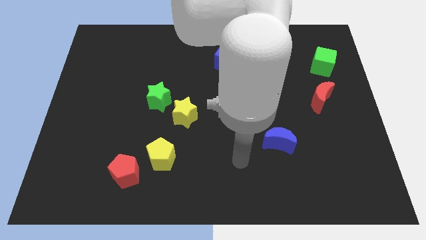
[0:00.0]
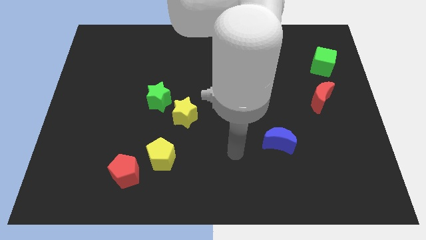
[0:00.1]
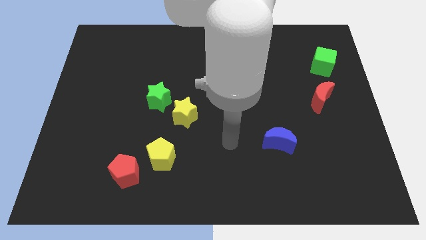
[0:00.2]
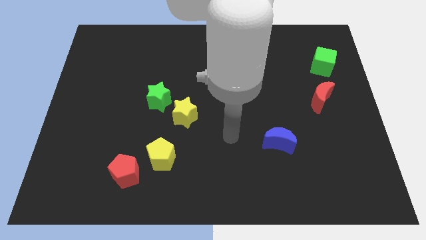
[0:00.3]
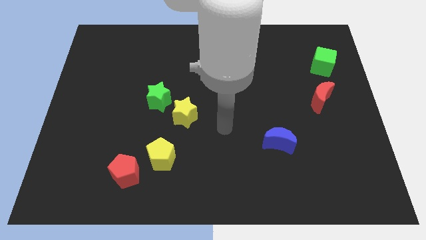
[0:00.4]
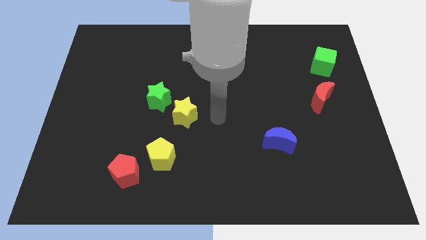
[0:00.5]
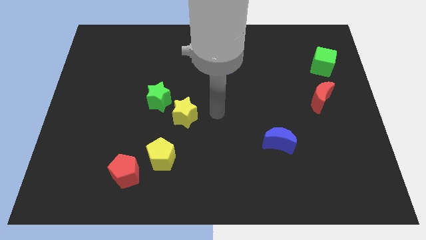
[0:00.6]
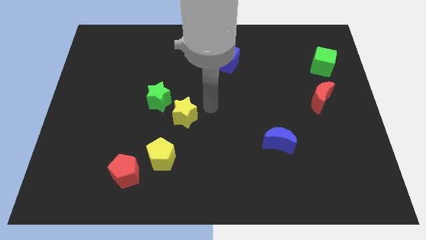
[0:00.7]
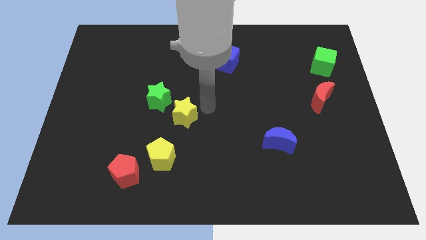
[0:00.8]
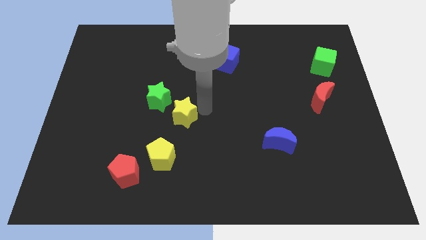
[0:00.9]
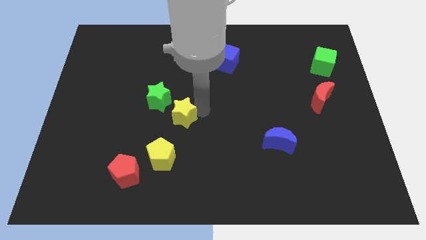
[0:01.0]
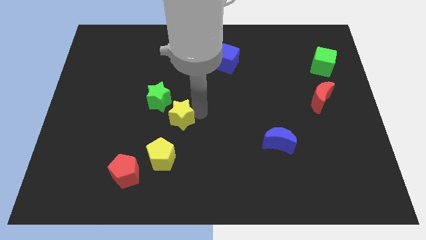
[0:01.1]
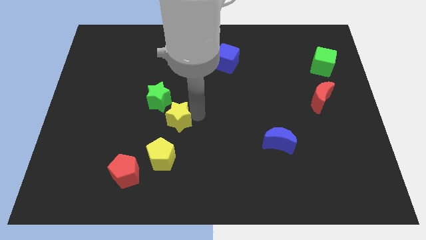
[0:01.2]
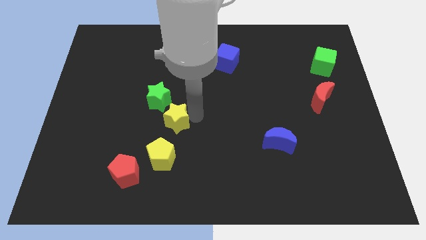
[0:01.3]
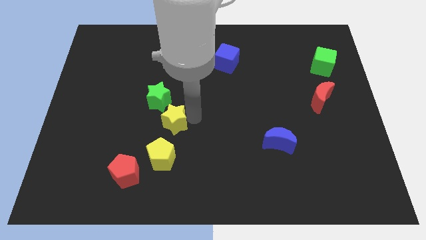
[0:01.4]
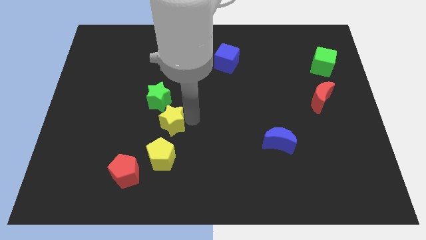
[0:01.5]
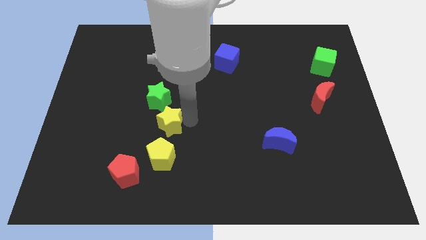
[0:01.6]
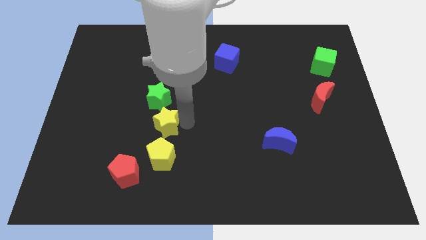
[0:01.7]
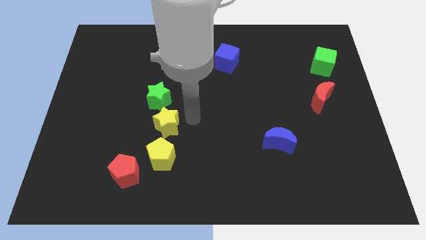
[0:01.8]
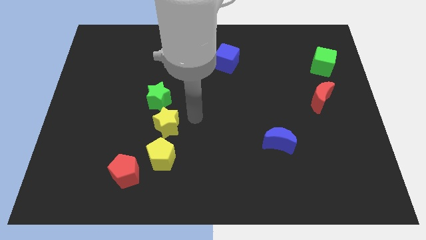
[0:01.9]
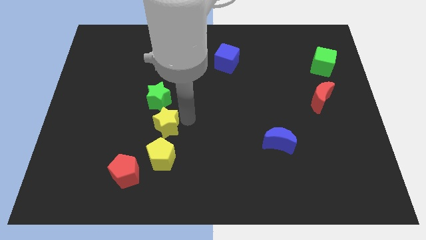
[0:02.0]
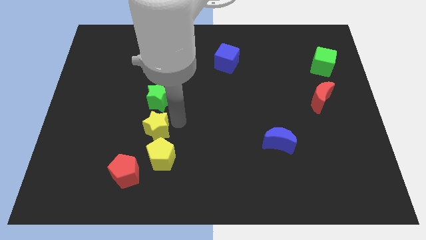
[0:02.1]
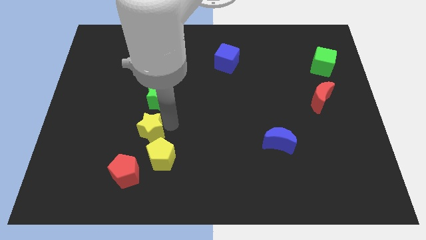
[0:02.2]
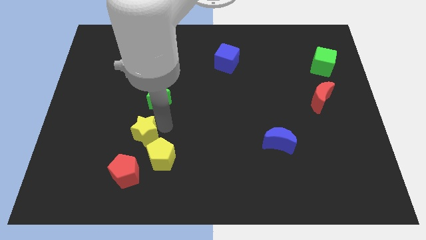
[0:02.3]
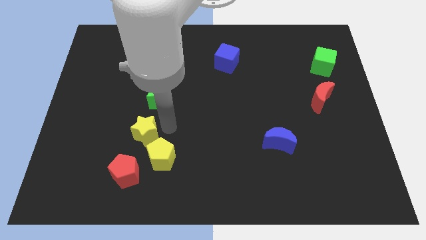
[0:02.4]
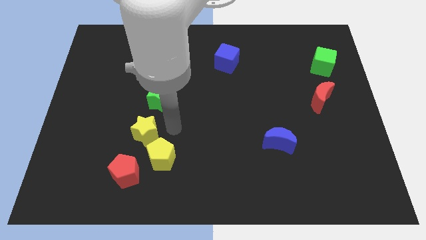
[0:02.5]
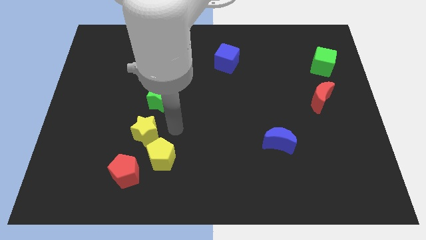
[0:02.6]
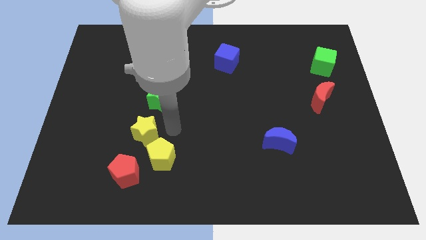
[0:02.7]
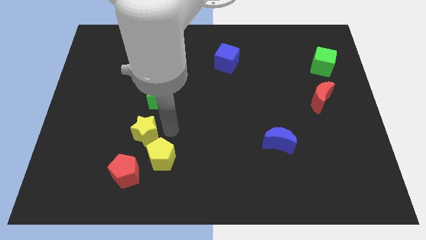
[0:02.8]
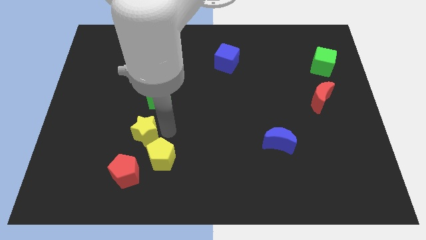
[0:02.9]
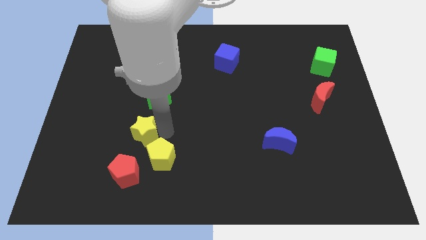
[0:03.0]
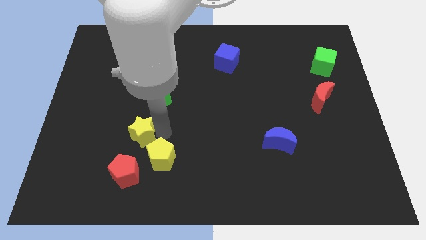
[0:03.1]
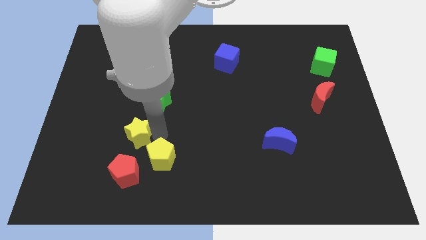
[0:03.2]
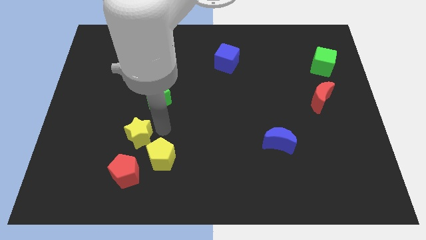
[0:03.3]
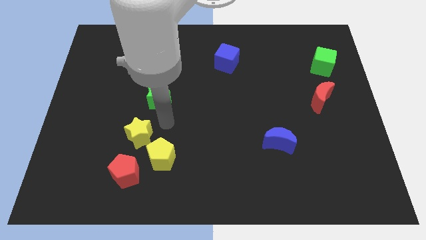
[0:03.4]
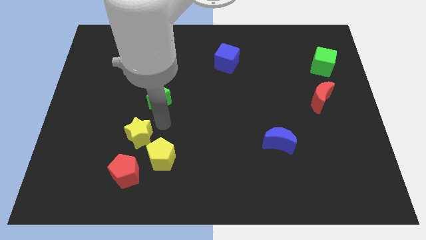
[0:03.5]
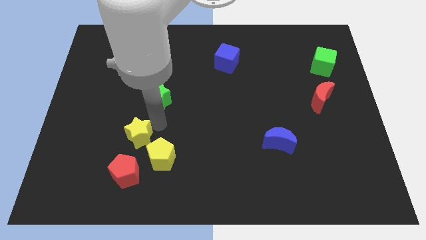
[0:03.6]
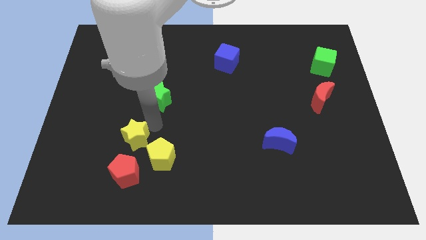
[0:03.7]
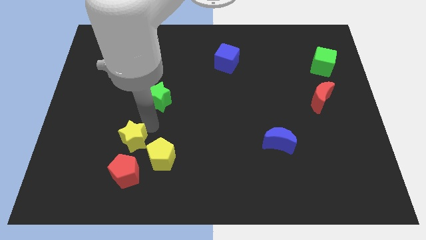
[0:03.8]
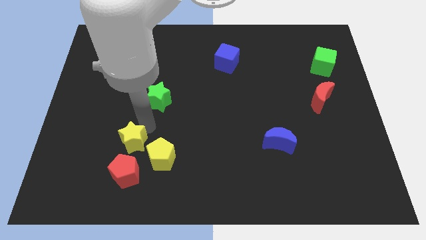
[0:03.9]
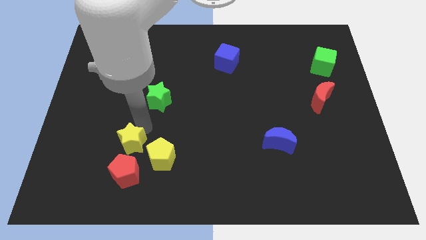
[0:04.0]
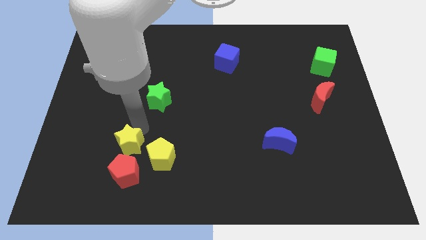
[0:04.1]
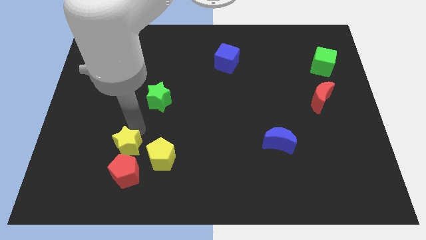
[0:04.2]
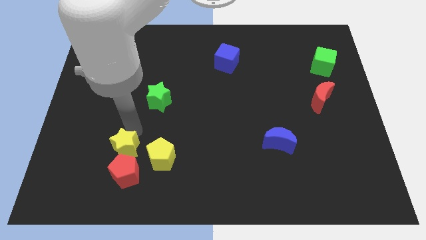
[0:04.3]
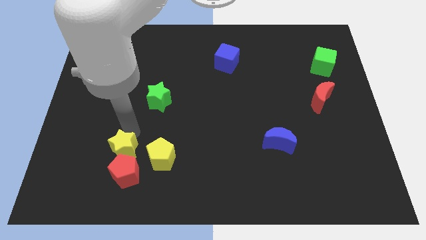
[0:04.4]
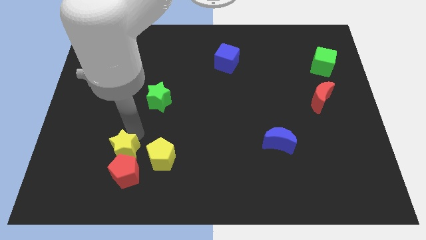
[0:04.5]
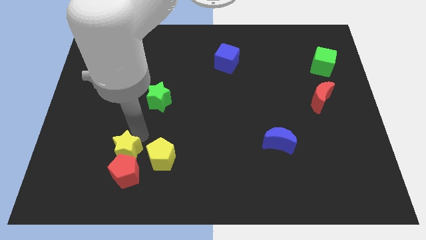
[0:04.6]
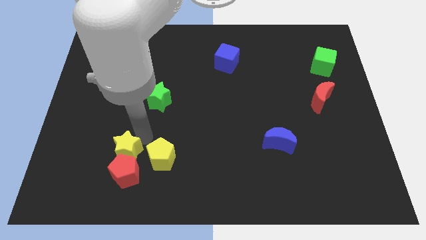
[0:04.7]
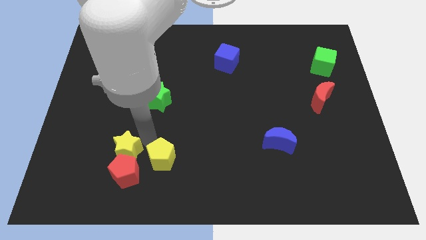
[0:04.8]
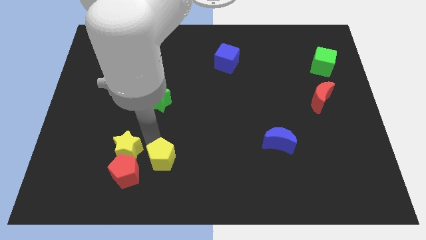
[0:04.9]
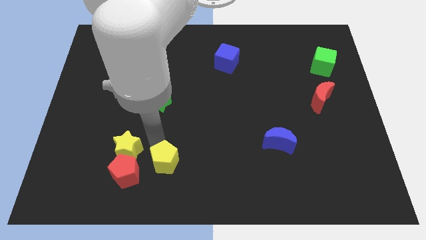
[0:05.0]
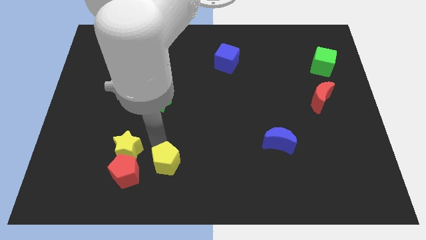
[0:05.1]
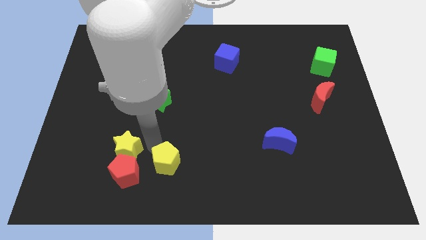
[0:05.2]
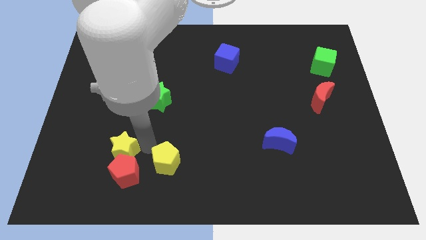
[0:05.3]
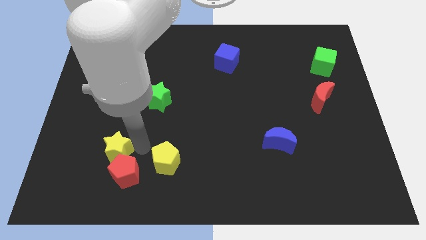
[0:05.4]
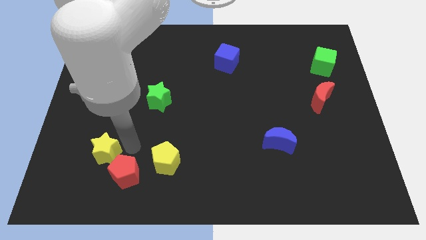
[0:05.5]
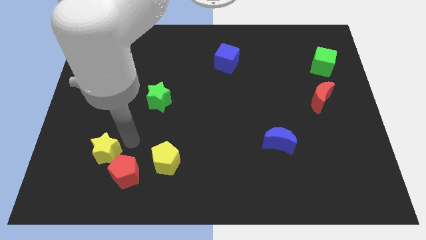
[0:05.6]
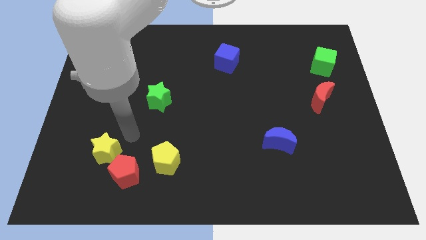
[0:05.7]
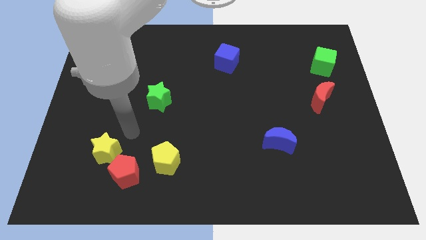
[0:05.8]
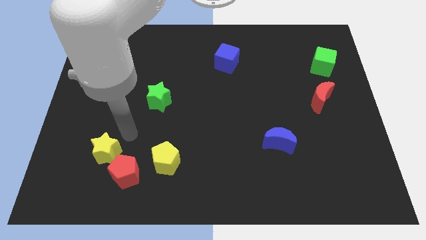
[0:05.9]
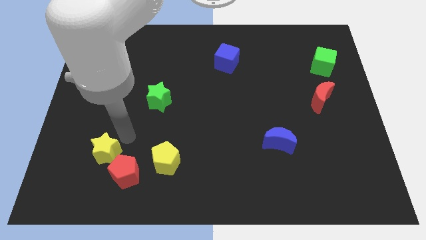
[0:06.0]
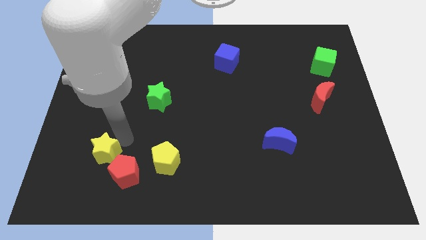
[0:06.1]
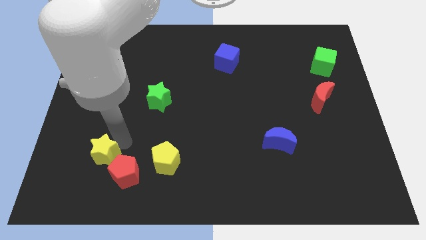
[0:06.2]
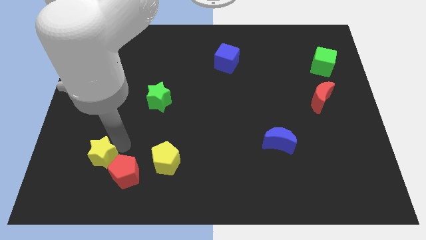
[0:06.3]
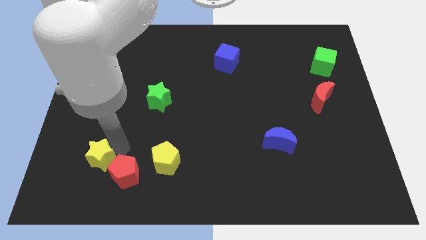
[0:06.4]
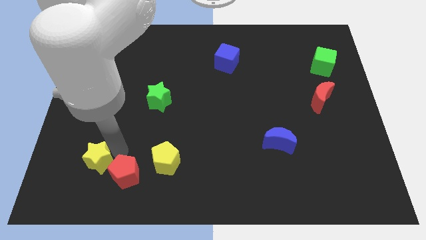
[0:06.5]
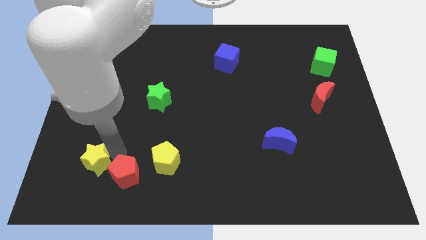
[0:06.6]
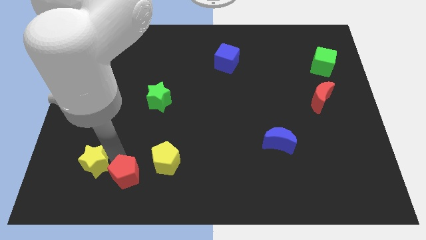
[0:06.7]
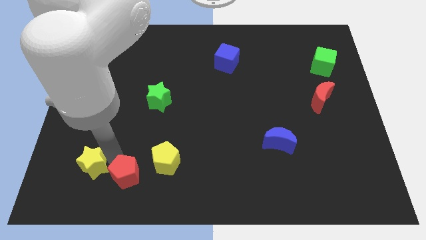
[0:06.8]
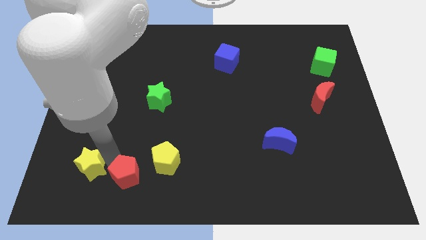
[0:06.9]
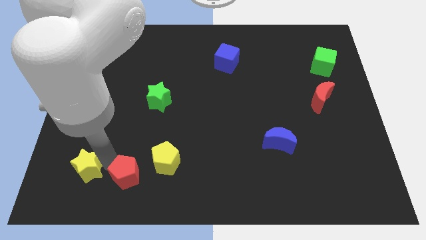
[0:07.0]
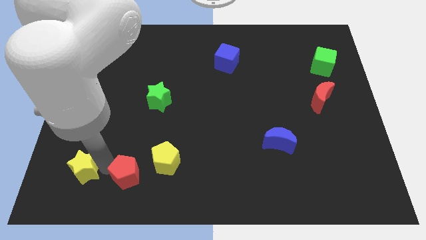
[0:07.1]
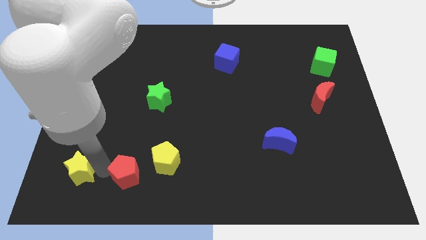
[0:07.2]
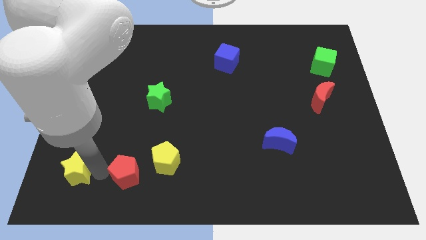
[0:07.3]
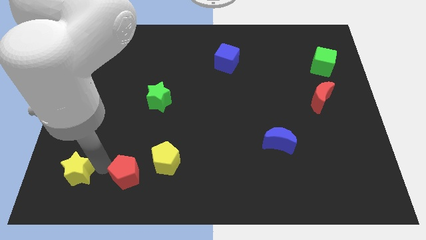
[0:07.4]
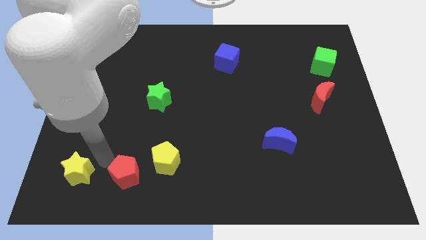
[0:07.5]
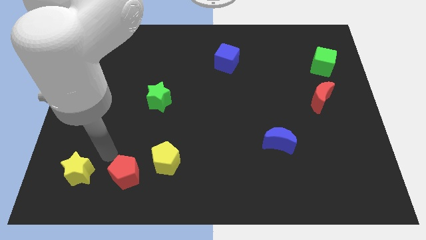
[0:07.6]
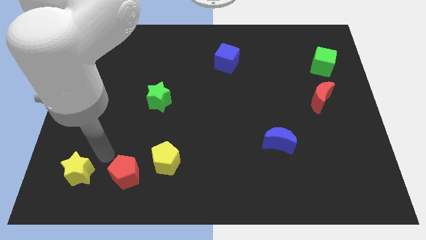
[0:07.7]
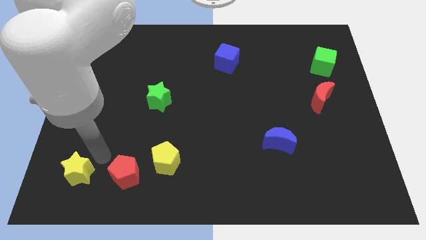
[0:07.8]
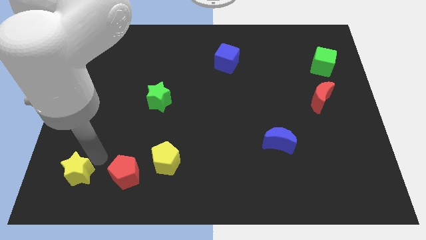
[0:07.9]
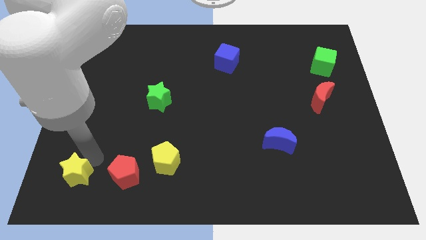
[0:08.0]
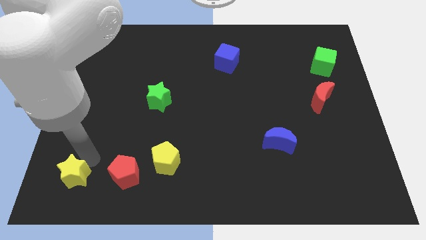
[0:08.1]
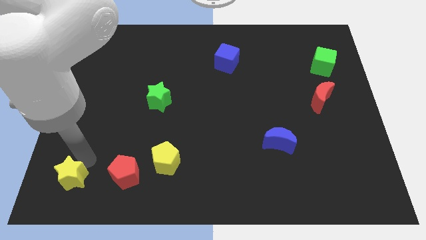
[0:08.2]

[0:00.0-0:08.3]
slide the yellow star to the bottom left
